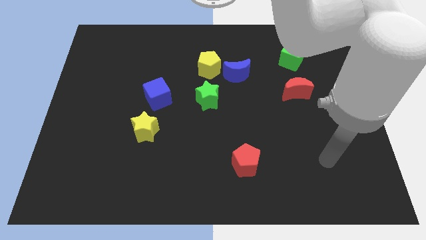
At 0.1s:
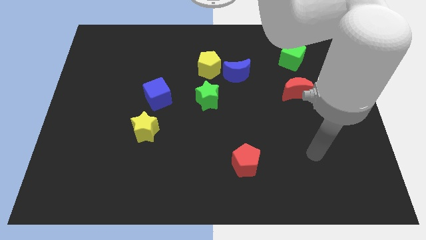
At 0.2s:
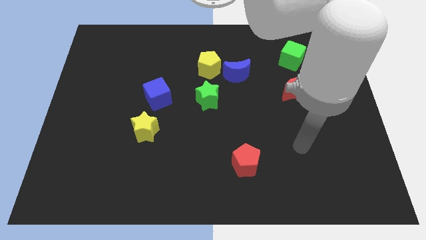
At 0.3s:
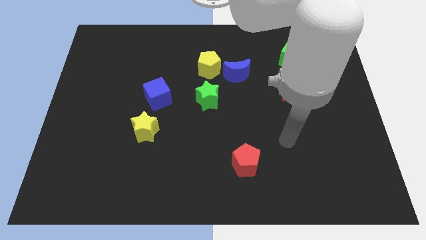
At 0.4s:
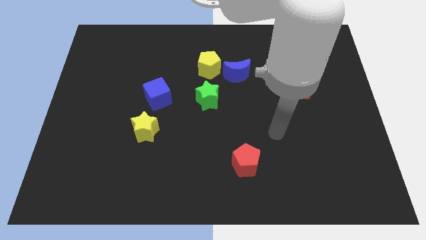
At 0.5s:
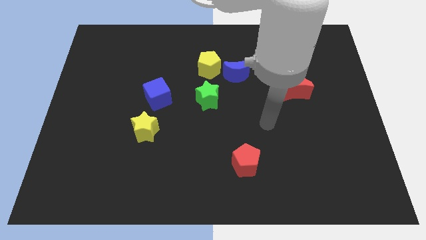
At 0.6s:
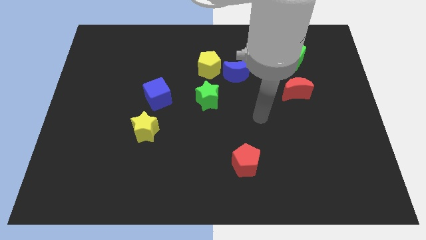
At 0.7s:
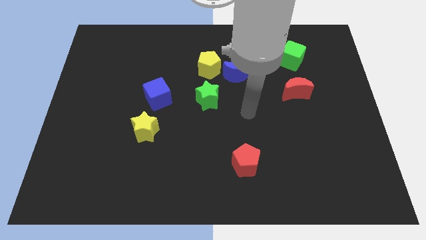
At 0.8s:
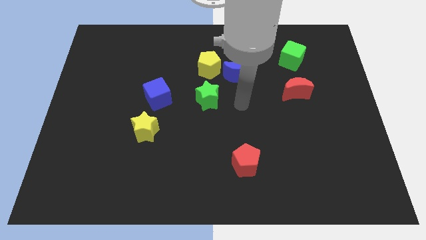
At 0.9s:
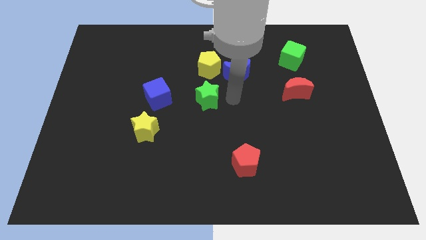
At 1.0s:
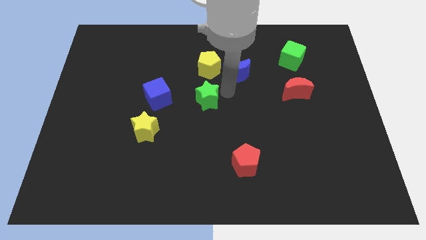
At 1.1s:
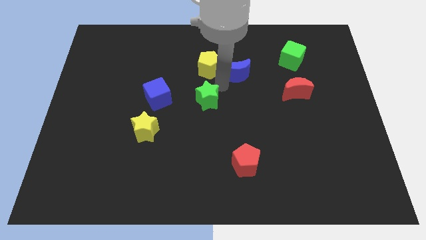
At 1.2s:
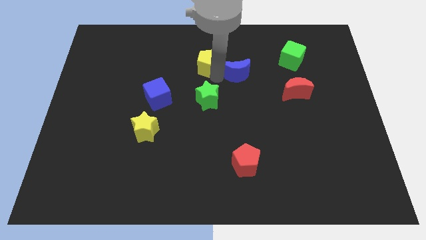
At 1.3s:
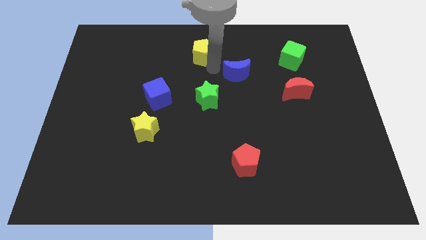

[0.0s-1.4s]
move the blue moon away from the yellow pentagon

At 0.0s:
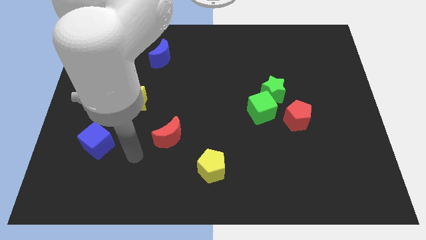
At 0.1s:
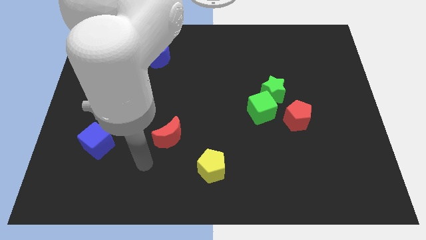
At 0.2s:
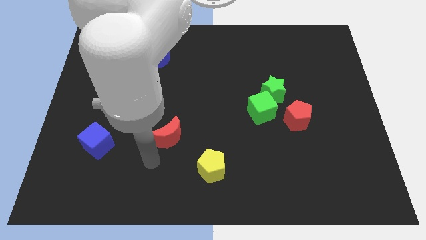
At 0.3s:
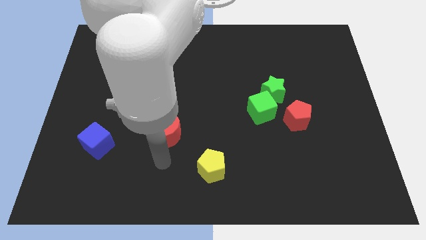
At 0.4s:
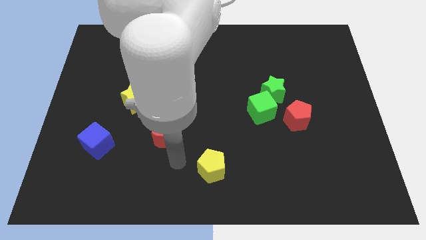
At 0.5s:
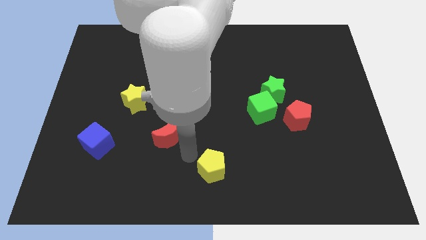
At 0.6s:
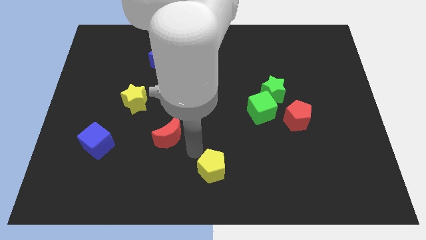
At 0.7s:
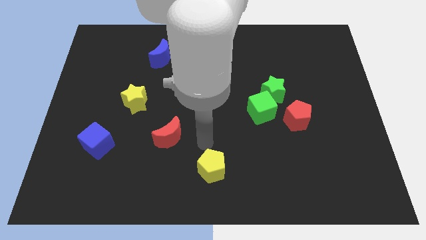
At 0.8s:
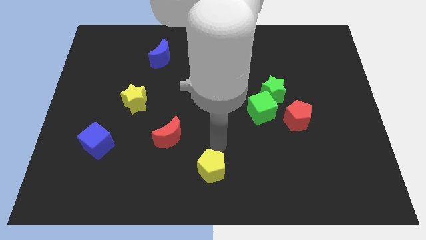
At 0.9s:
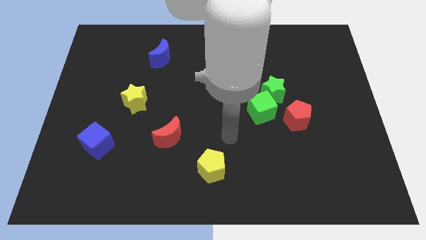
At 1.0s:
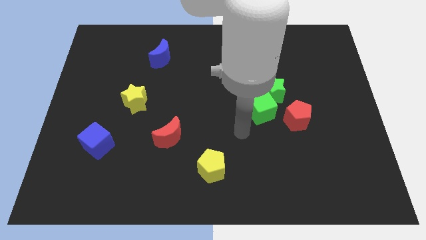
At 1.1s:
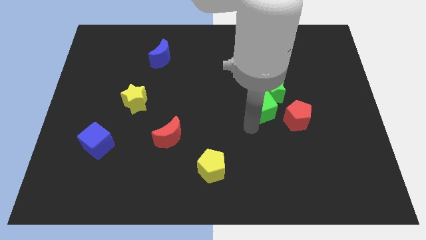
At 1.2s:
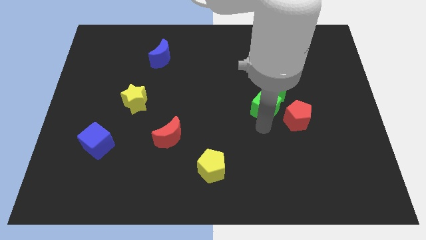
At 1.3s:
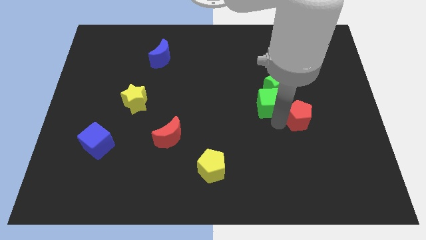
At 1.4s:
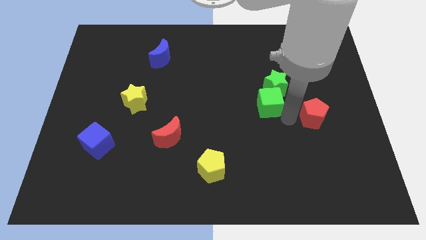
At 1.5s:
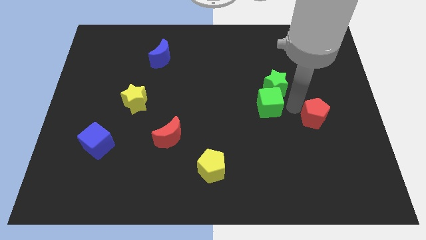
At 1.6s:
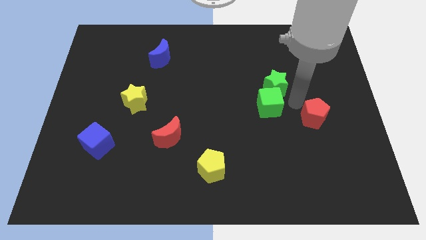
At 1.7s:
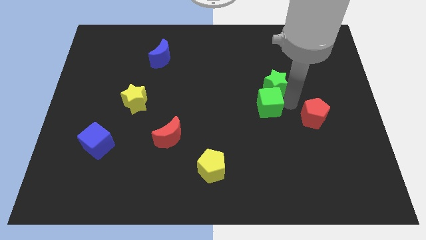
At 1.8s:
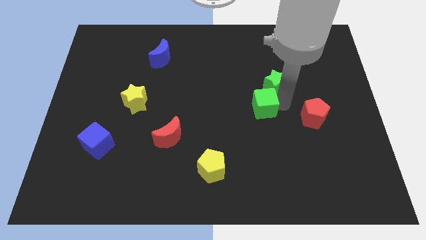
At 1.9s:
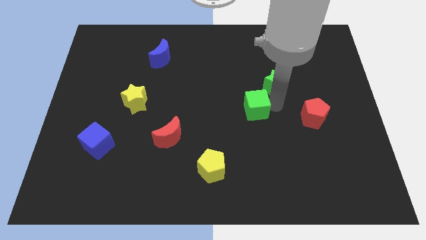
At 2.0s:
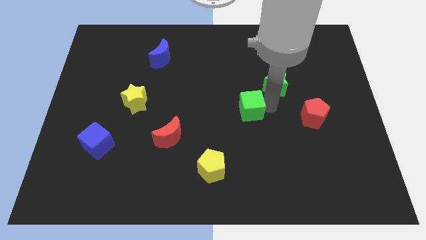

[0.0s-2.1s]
separate the green cube from the green star and red pentagon

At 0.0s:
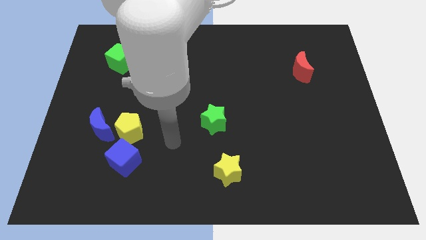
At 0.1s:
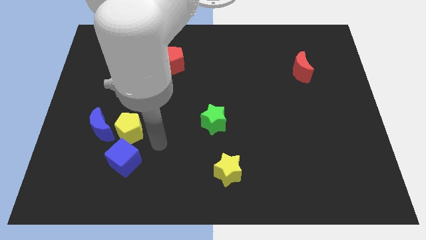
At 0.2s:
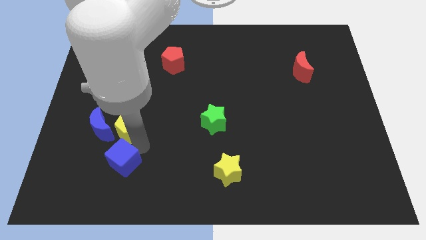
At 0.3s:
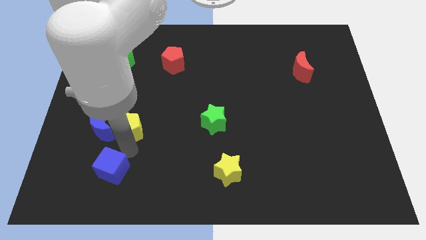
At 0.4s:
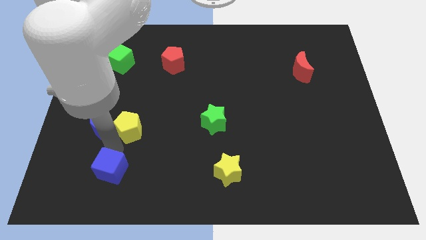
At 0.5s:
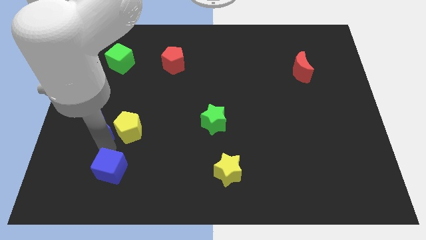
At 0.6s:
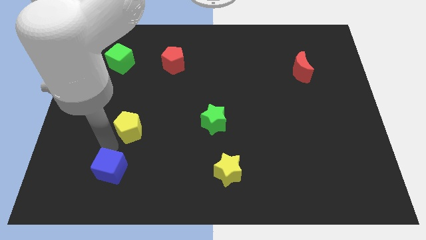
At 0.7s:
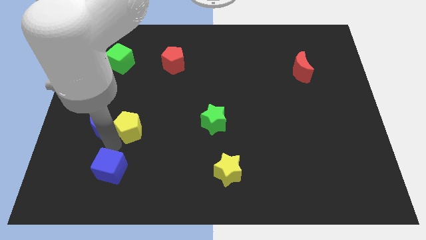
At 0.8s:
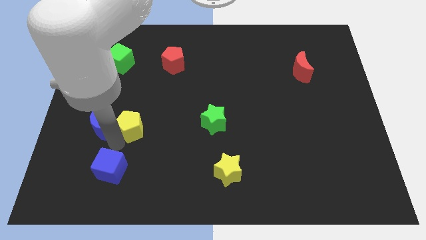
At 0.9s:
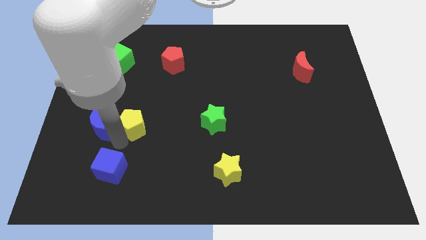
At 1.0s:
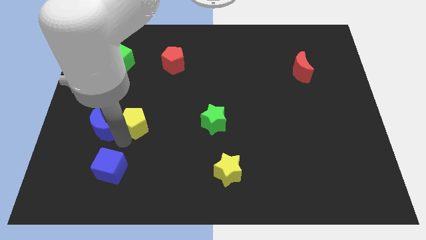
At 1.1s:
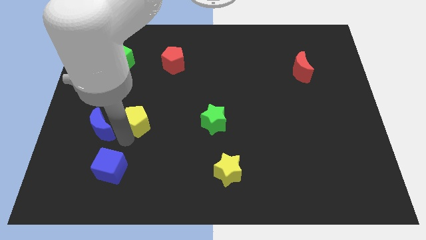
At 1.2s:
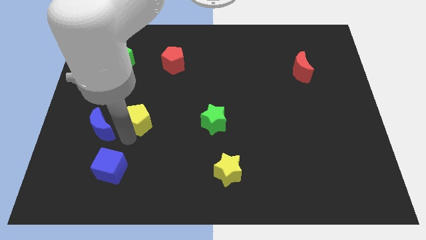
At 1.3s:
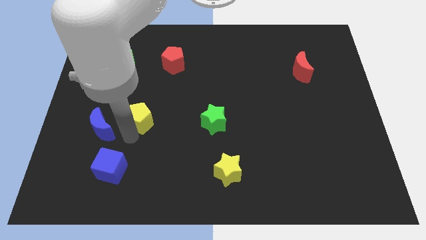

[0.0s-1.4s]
move the yellow pentagon away from the blue moon and blue cube

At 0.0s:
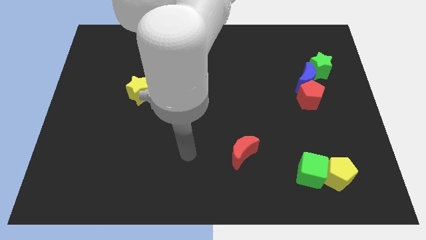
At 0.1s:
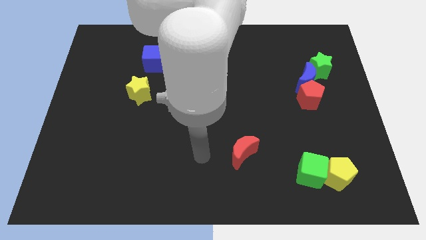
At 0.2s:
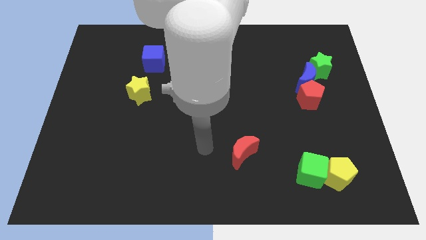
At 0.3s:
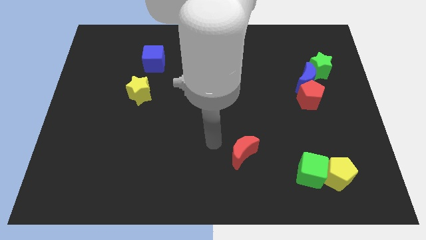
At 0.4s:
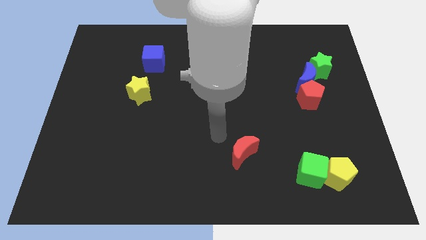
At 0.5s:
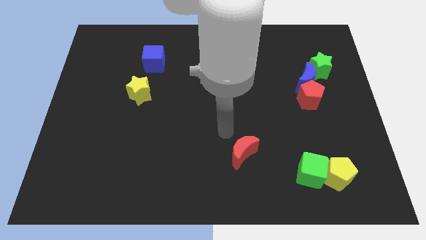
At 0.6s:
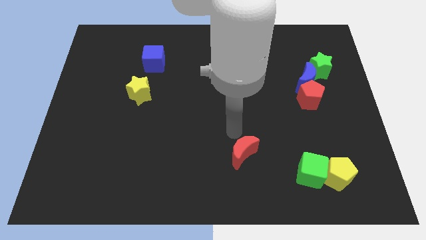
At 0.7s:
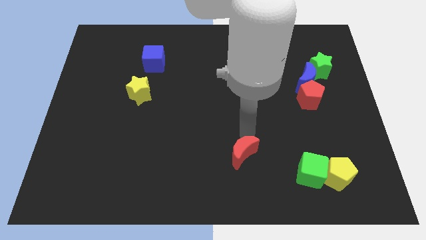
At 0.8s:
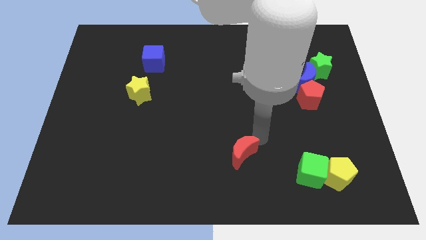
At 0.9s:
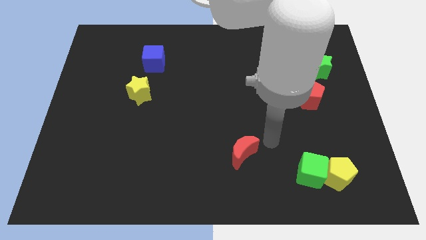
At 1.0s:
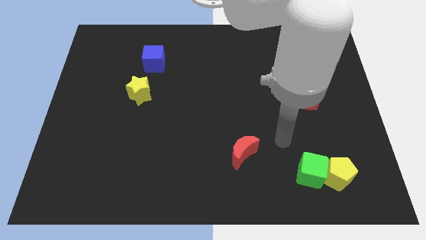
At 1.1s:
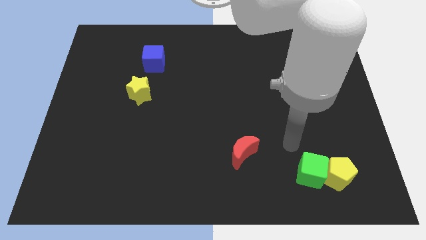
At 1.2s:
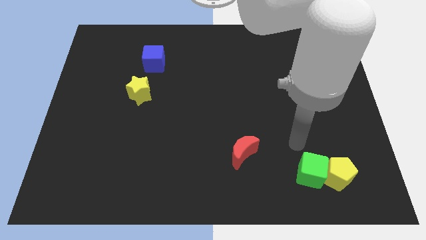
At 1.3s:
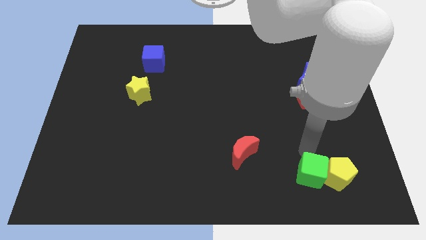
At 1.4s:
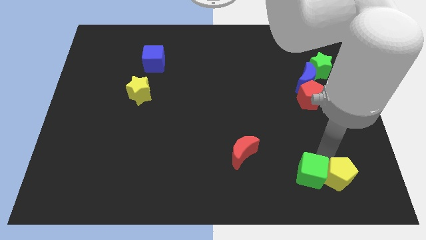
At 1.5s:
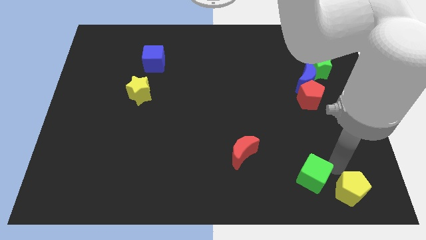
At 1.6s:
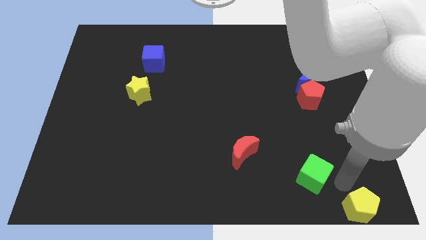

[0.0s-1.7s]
move the green cube away from the yellow pentagon

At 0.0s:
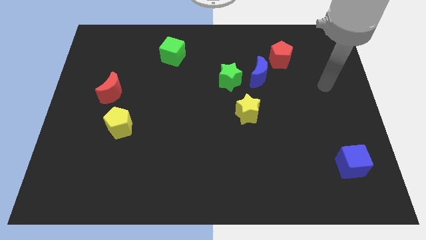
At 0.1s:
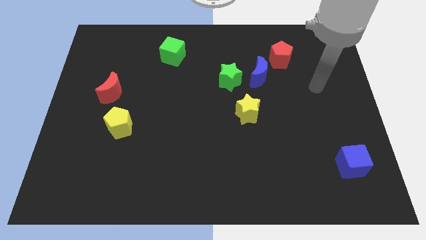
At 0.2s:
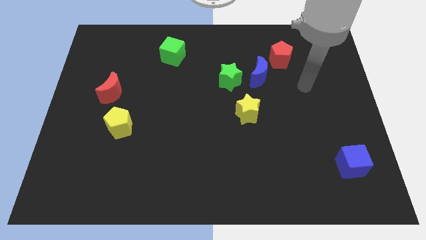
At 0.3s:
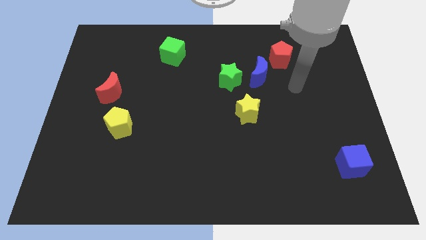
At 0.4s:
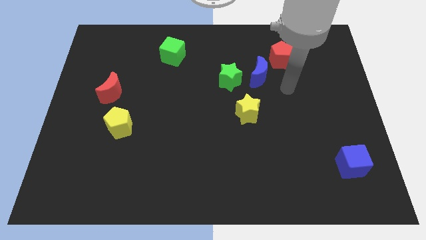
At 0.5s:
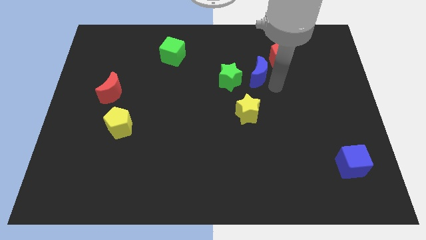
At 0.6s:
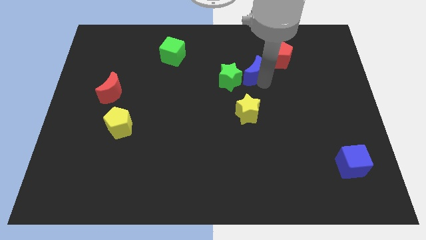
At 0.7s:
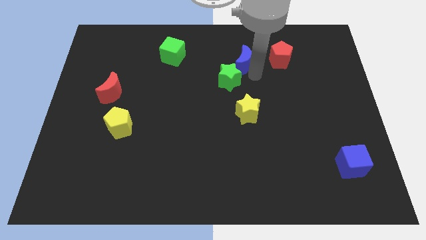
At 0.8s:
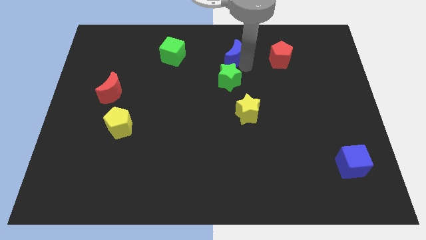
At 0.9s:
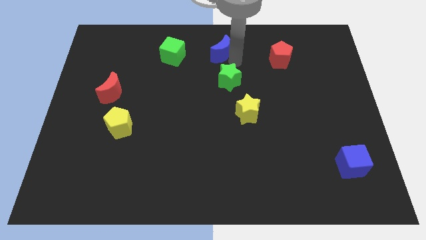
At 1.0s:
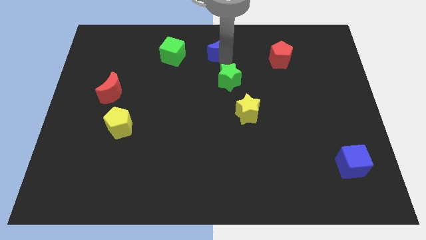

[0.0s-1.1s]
move the green star away from the blue moon

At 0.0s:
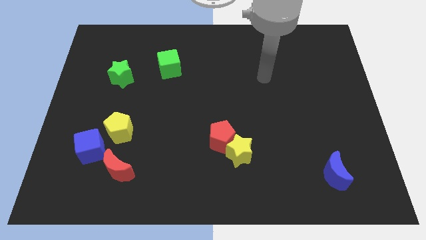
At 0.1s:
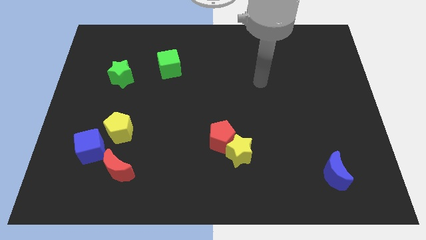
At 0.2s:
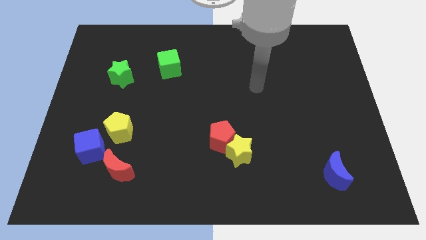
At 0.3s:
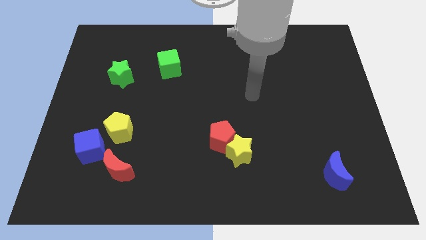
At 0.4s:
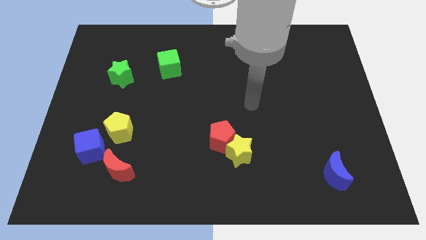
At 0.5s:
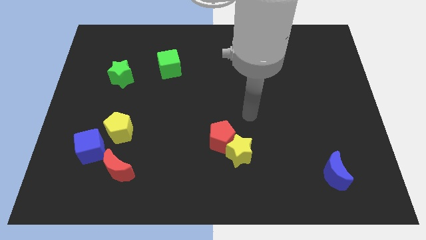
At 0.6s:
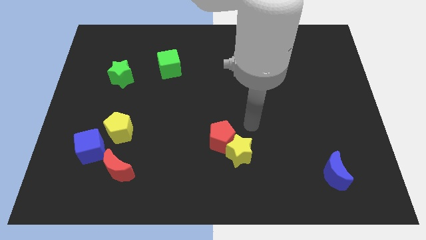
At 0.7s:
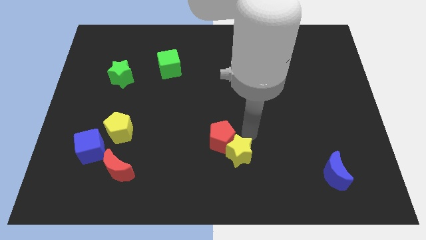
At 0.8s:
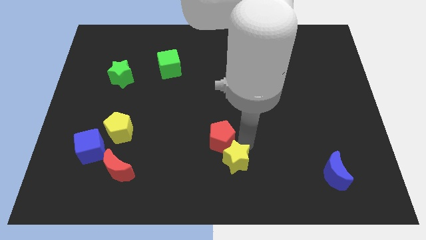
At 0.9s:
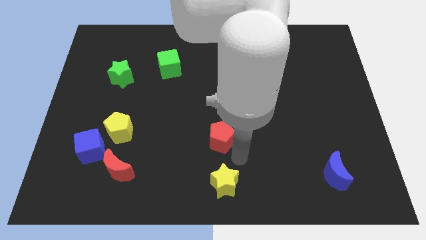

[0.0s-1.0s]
pull the red pentagon apart from the yellow star

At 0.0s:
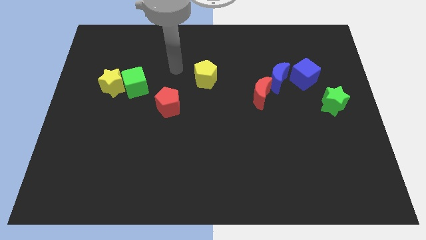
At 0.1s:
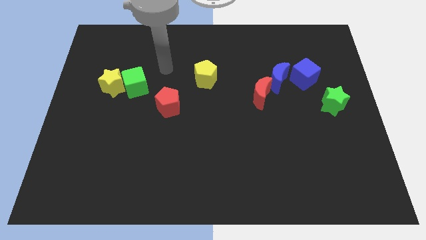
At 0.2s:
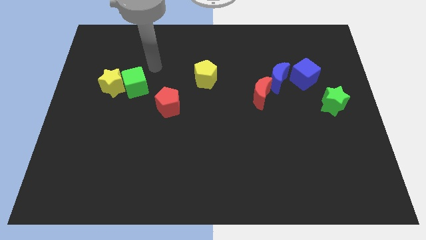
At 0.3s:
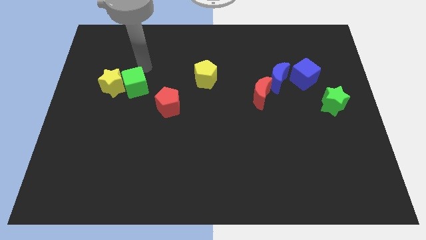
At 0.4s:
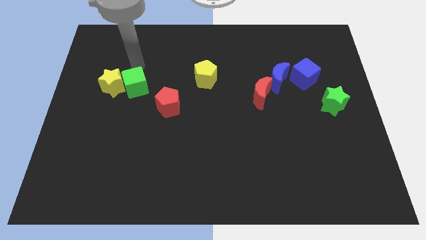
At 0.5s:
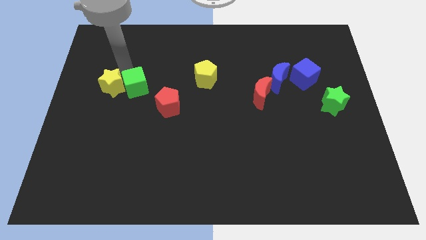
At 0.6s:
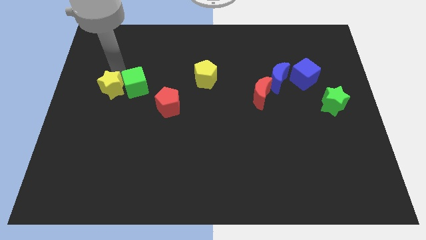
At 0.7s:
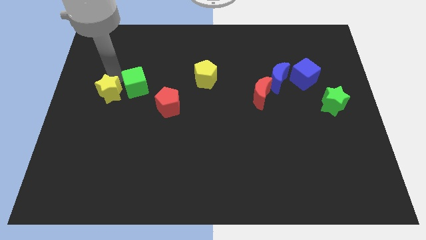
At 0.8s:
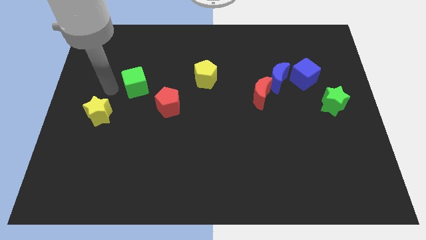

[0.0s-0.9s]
move the green cube away from the yellow star
